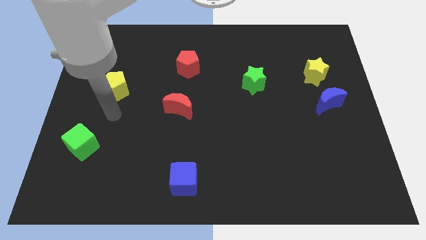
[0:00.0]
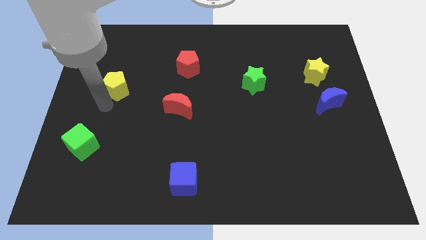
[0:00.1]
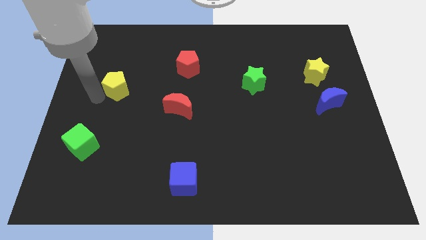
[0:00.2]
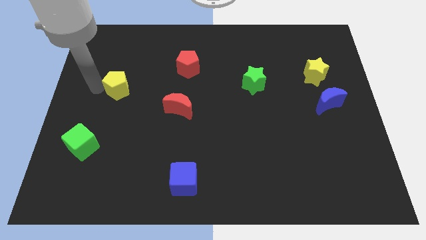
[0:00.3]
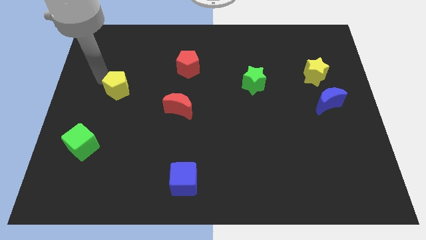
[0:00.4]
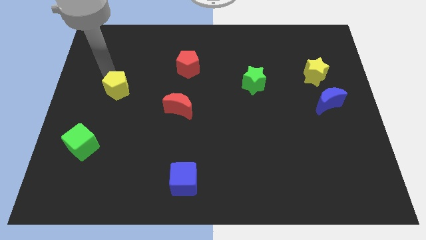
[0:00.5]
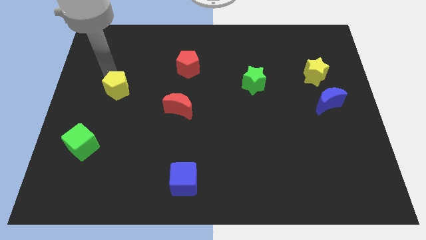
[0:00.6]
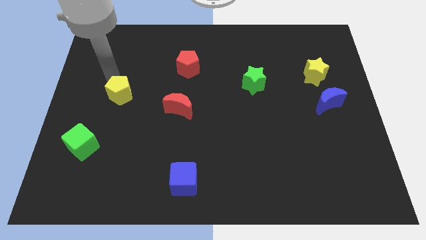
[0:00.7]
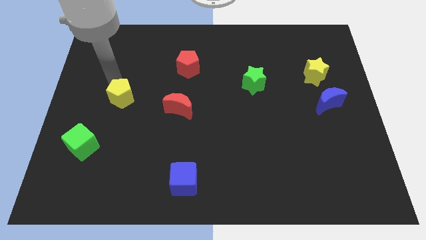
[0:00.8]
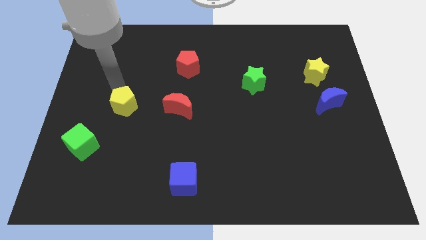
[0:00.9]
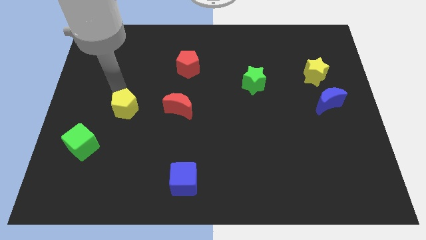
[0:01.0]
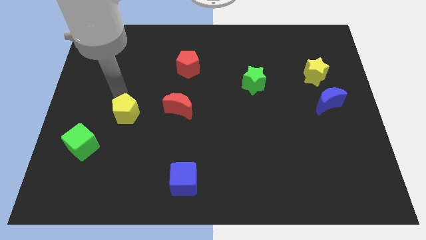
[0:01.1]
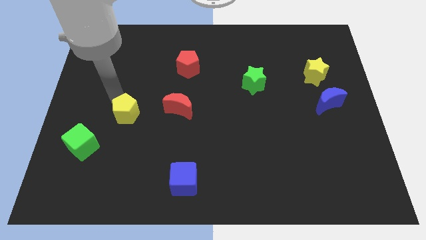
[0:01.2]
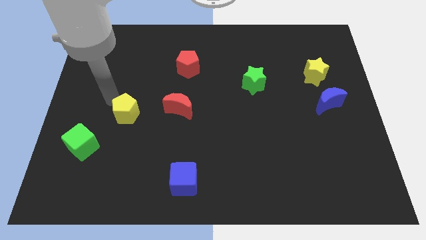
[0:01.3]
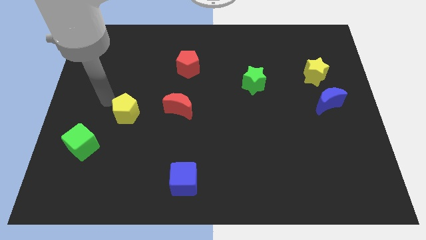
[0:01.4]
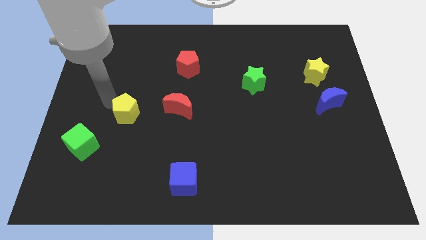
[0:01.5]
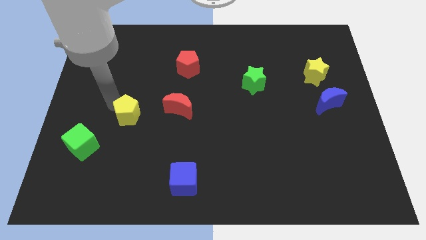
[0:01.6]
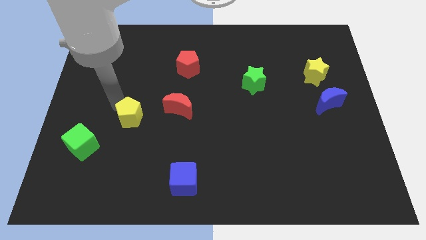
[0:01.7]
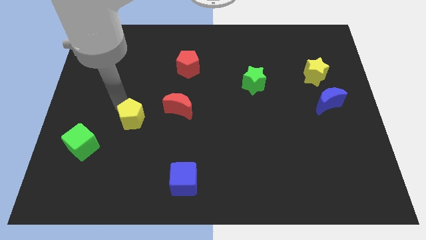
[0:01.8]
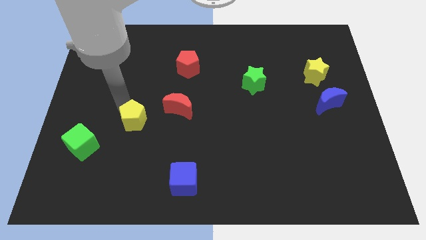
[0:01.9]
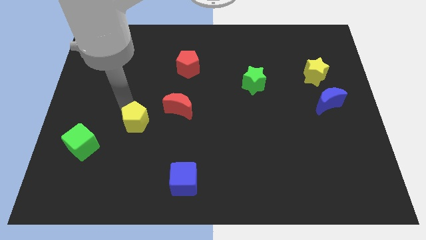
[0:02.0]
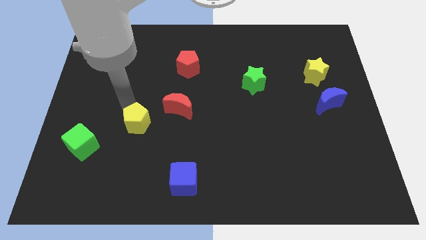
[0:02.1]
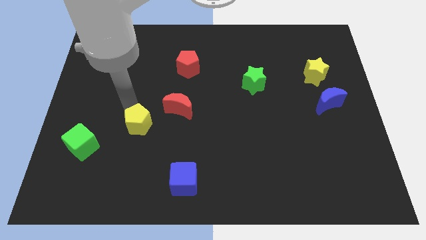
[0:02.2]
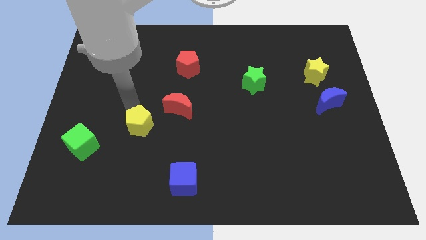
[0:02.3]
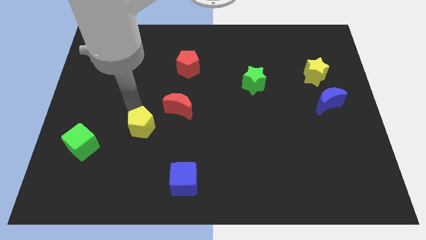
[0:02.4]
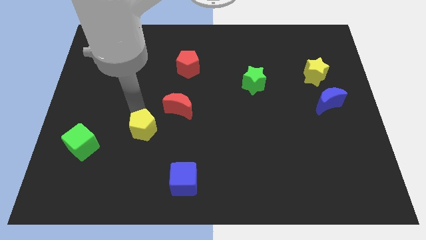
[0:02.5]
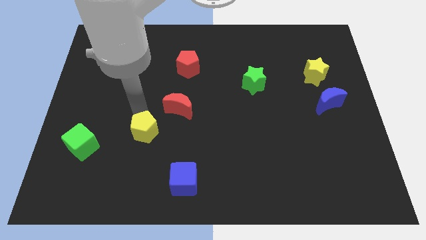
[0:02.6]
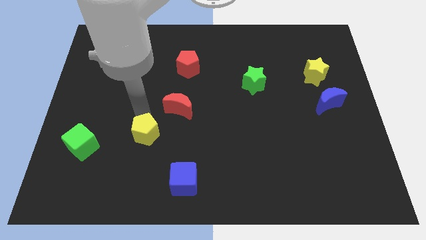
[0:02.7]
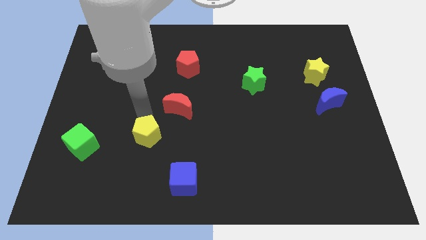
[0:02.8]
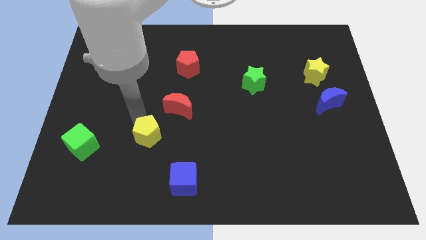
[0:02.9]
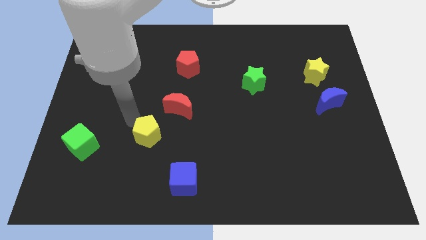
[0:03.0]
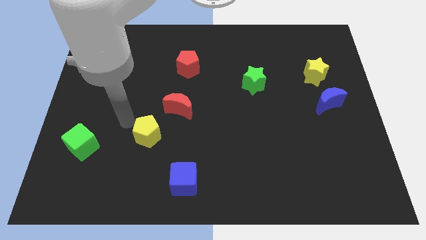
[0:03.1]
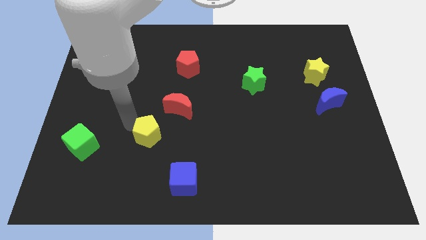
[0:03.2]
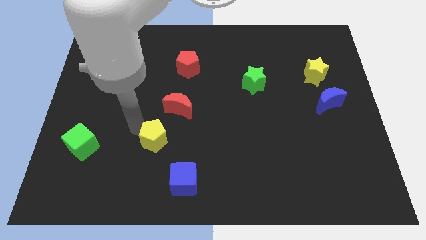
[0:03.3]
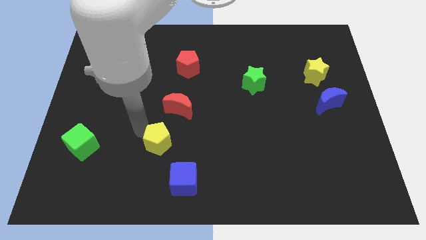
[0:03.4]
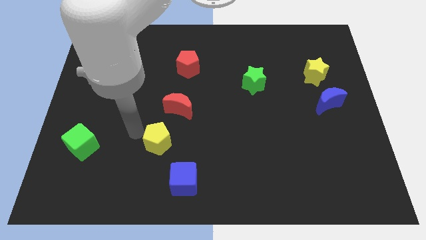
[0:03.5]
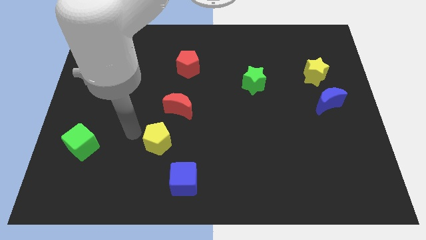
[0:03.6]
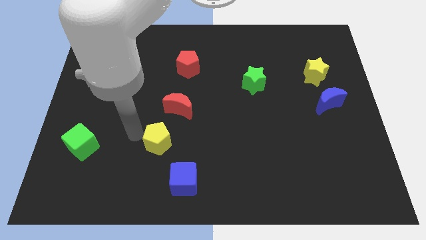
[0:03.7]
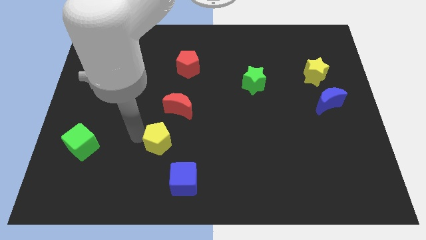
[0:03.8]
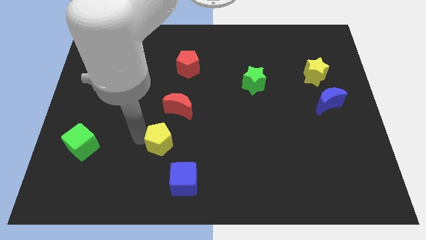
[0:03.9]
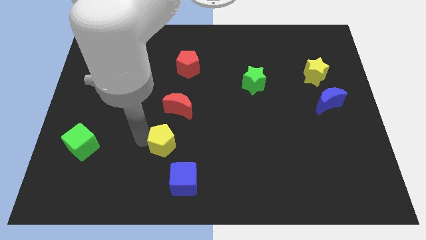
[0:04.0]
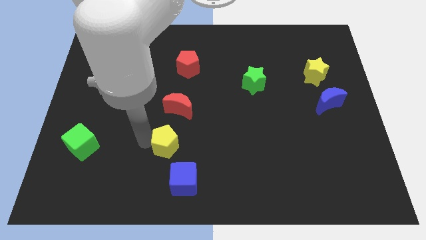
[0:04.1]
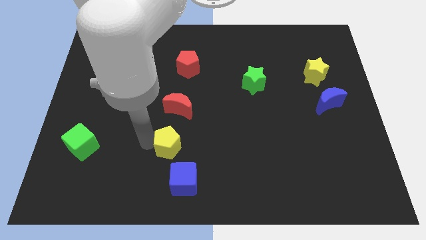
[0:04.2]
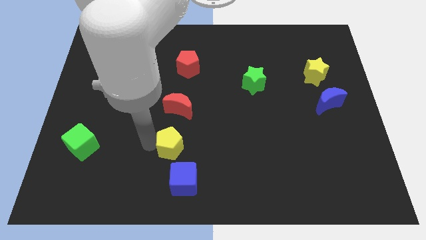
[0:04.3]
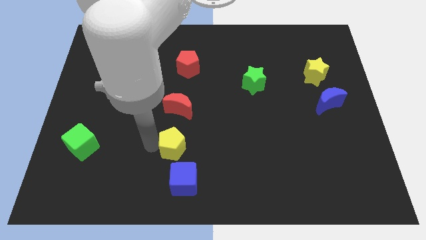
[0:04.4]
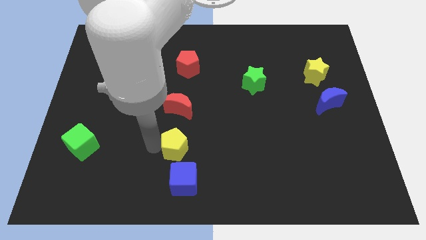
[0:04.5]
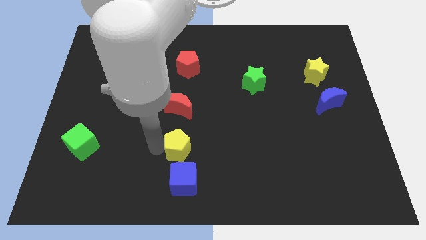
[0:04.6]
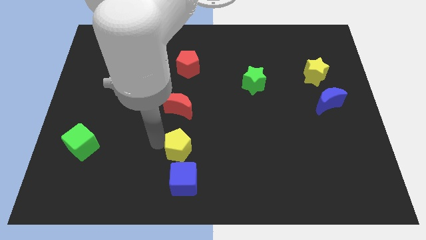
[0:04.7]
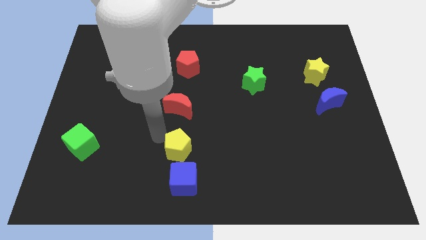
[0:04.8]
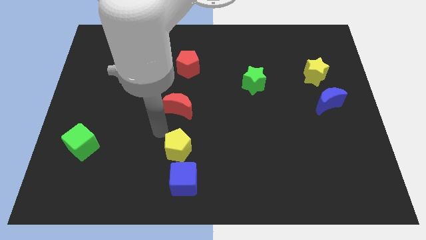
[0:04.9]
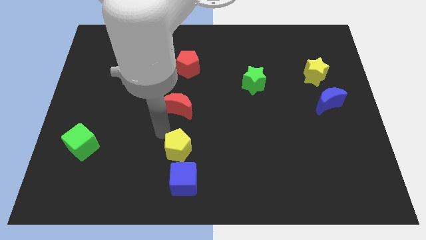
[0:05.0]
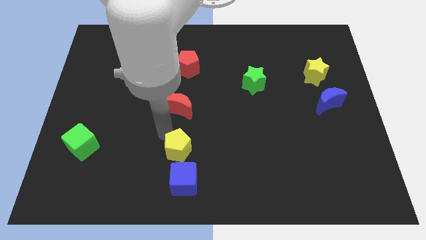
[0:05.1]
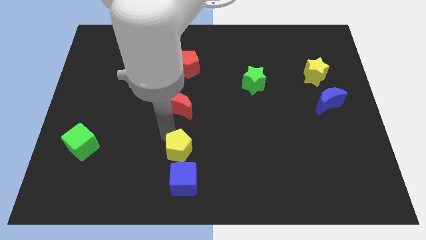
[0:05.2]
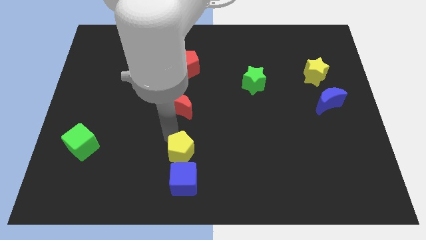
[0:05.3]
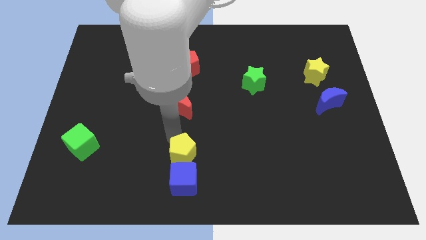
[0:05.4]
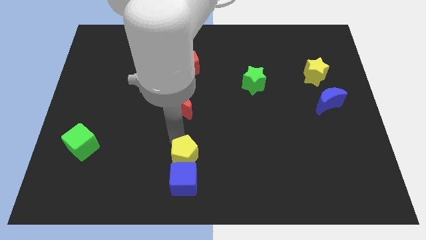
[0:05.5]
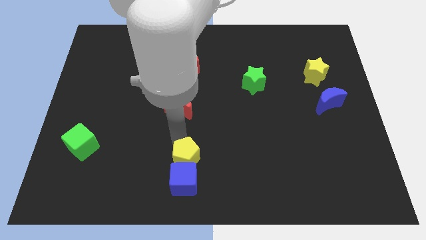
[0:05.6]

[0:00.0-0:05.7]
move the yellow pentagon to the bottom
